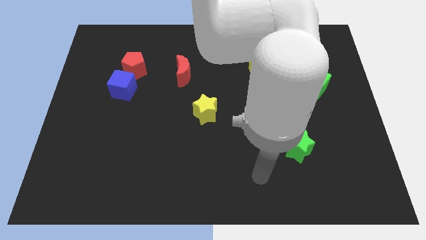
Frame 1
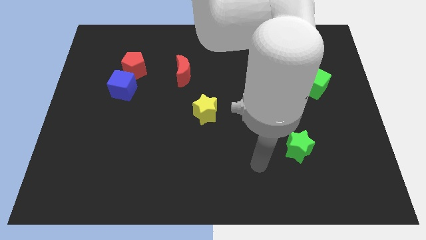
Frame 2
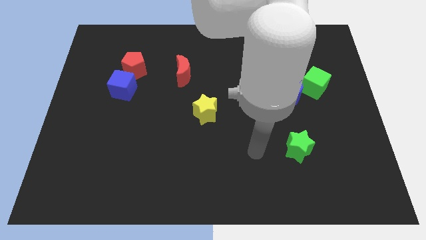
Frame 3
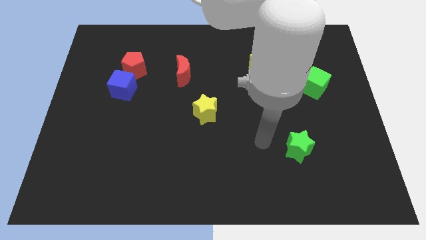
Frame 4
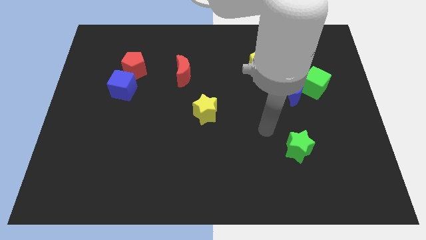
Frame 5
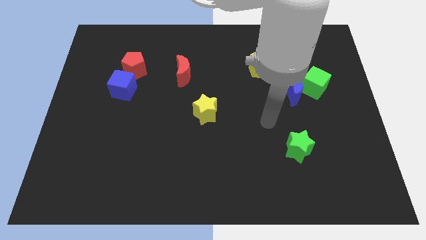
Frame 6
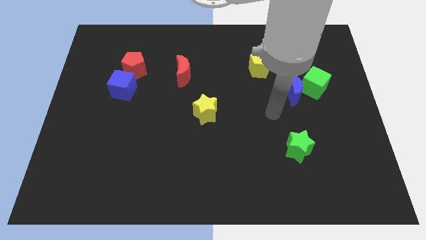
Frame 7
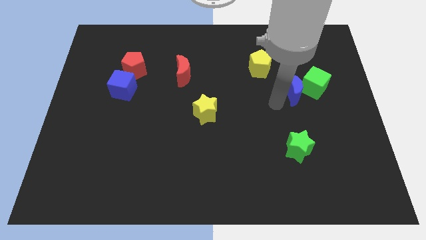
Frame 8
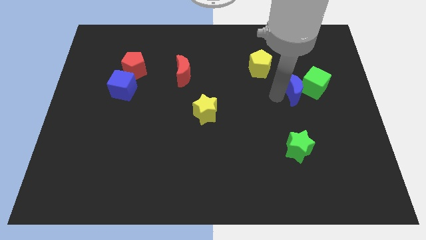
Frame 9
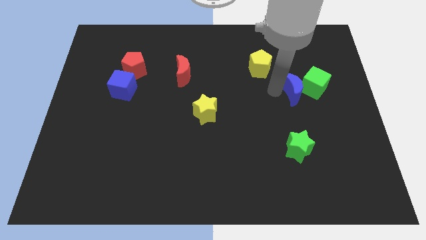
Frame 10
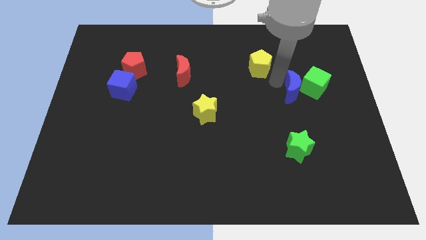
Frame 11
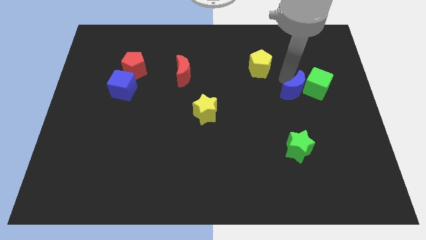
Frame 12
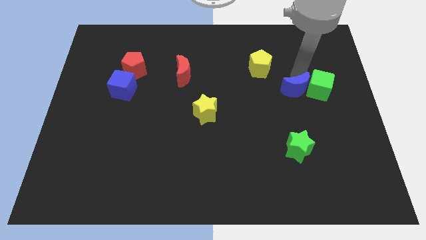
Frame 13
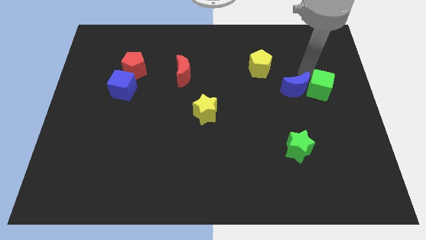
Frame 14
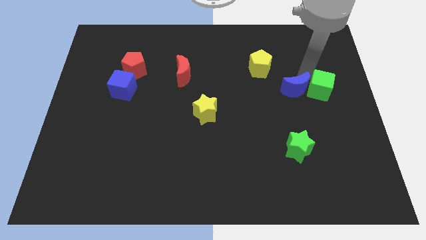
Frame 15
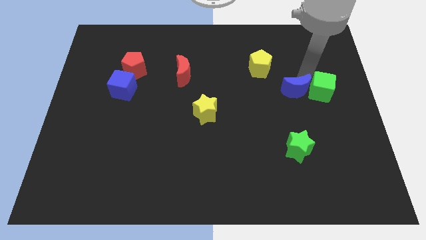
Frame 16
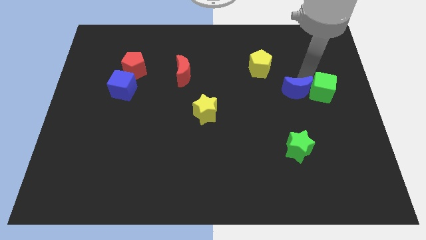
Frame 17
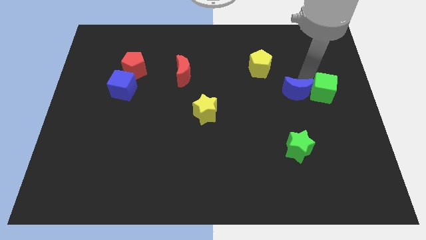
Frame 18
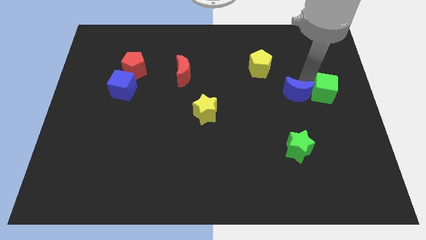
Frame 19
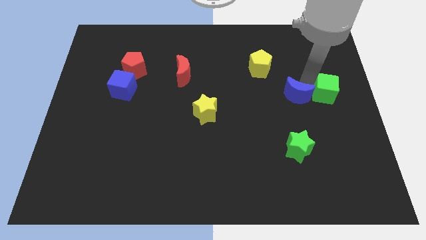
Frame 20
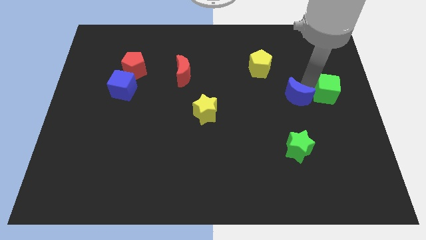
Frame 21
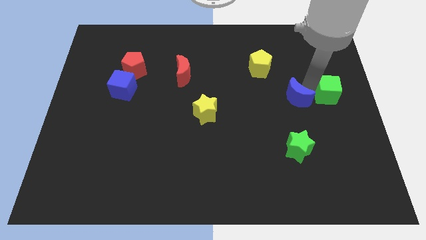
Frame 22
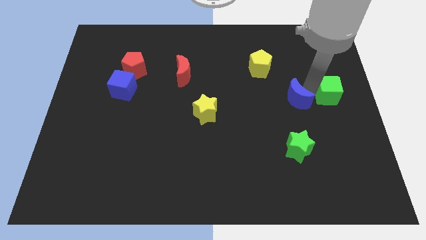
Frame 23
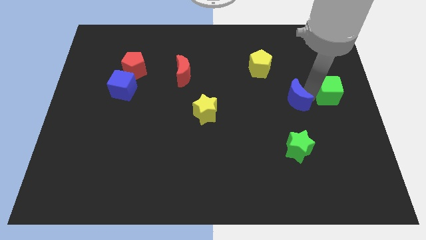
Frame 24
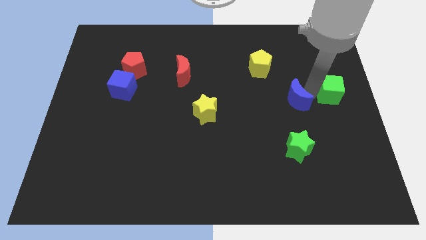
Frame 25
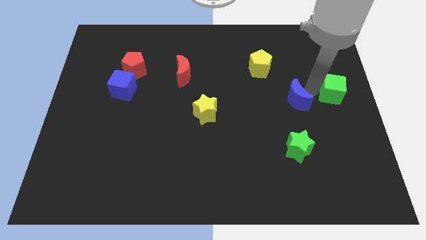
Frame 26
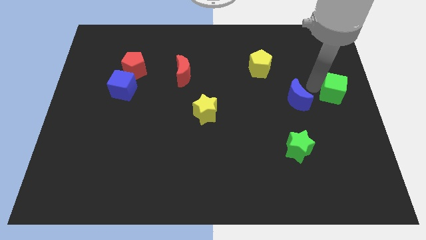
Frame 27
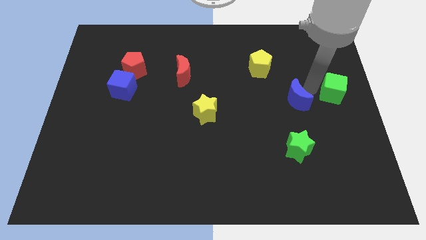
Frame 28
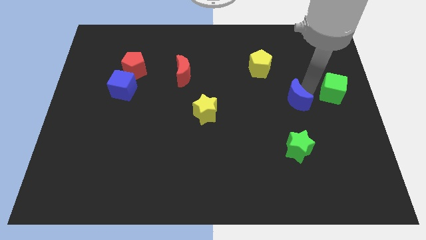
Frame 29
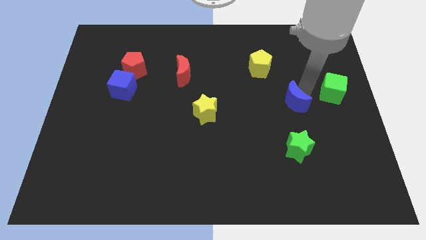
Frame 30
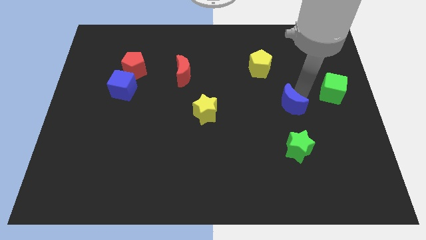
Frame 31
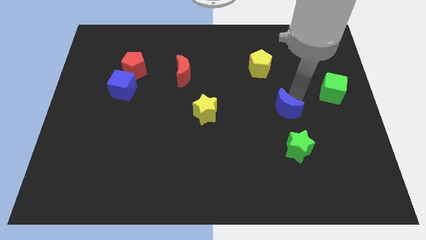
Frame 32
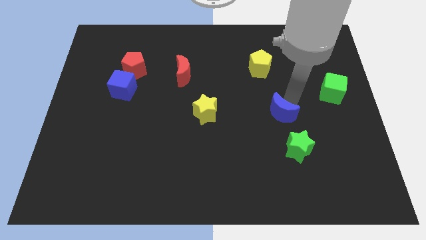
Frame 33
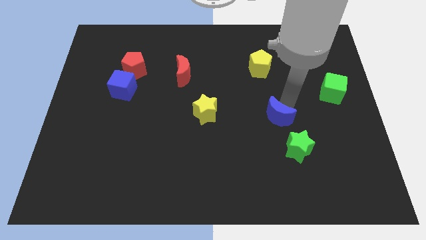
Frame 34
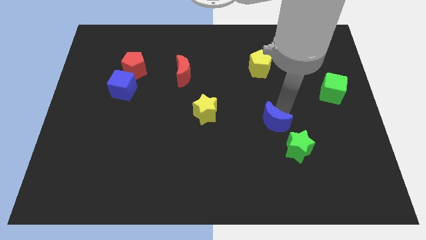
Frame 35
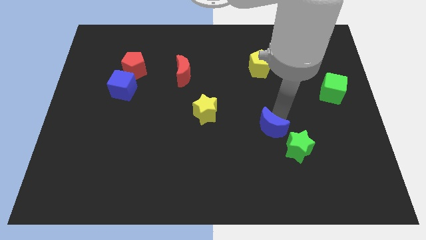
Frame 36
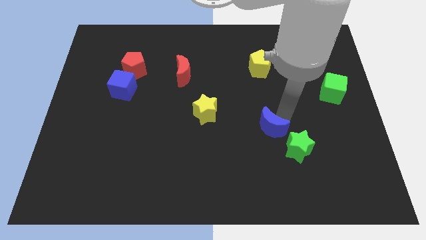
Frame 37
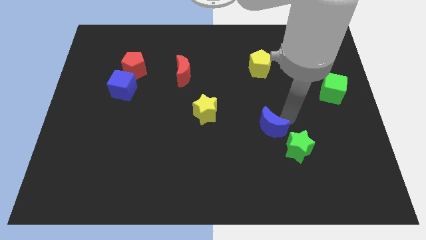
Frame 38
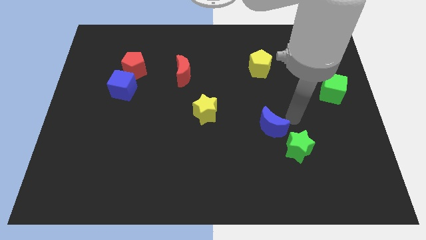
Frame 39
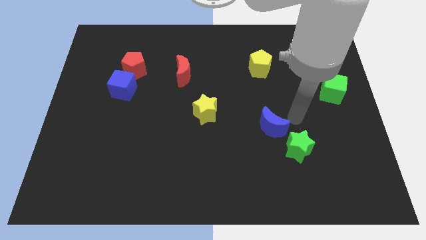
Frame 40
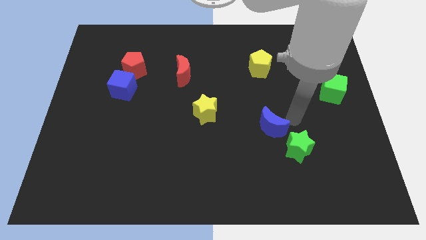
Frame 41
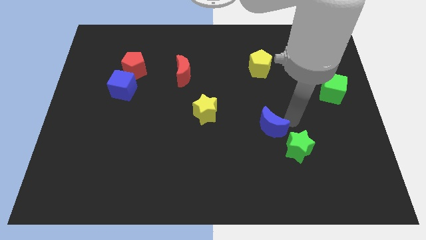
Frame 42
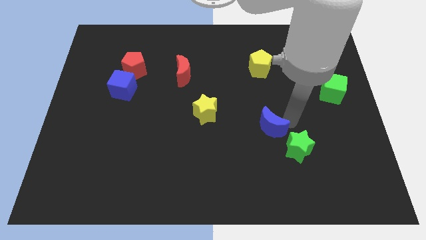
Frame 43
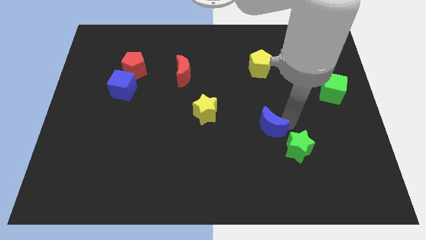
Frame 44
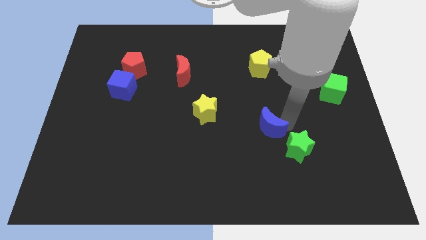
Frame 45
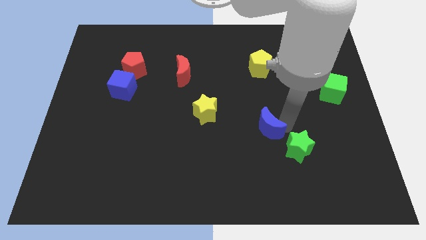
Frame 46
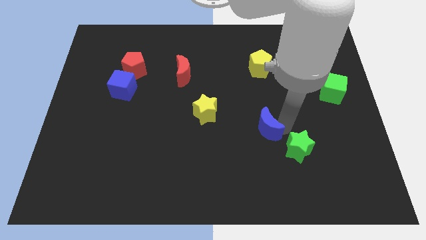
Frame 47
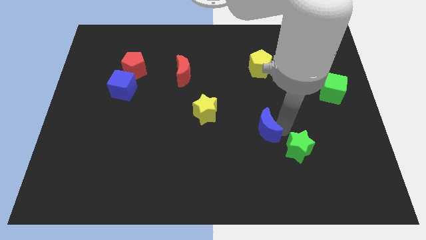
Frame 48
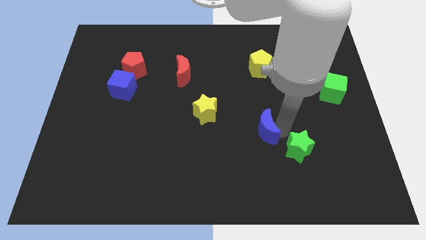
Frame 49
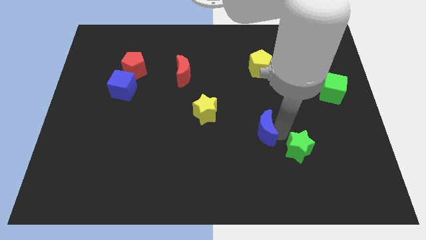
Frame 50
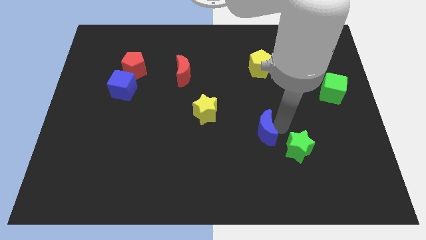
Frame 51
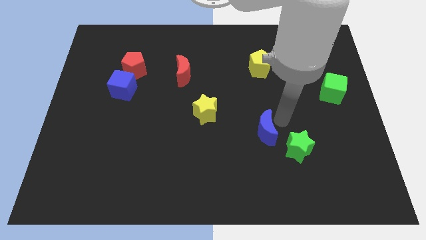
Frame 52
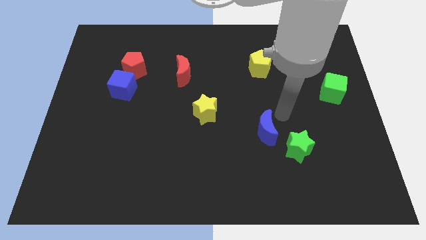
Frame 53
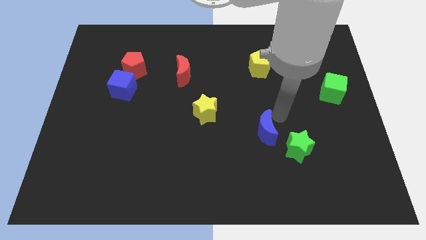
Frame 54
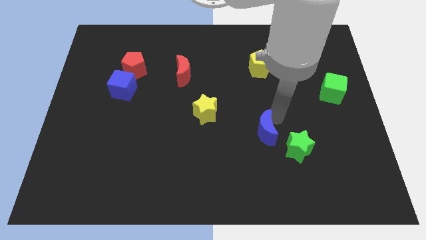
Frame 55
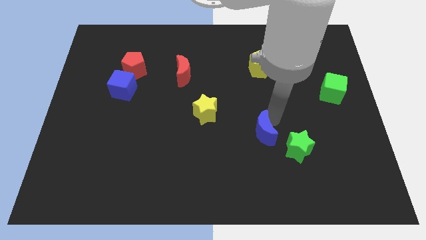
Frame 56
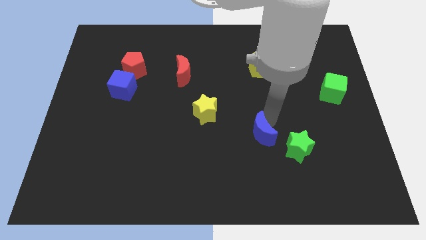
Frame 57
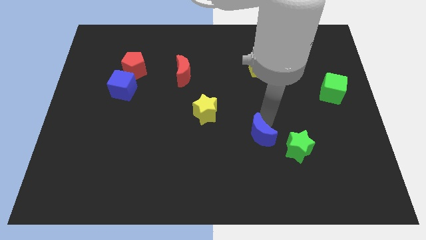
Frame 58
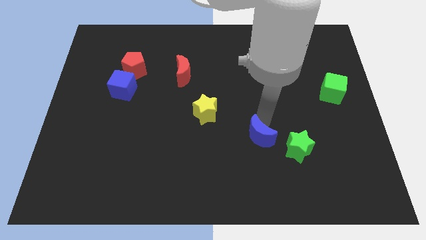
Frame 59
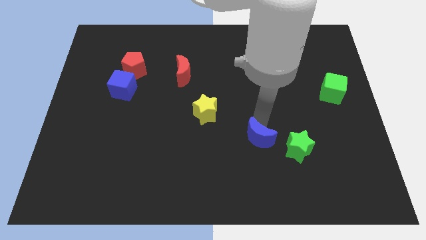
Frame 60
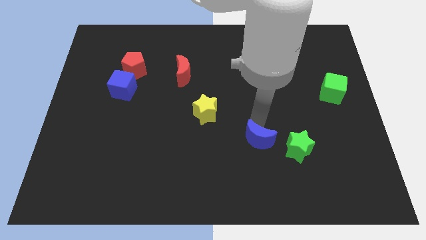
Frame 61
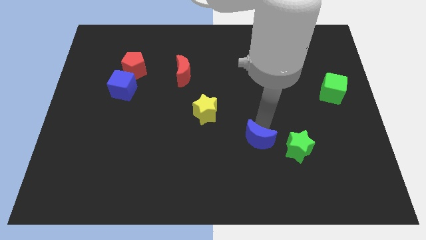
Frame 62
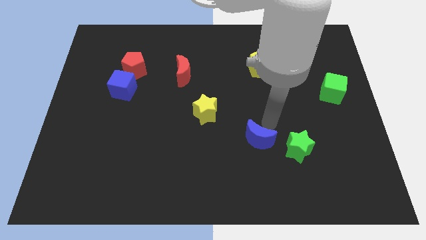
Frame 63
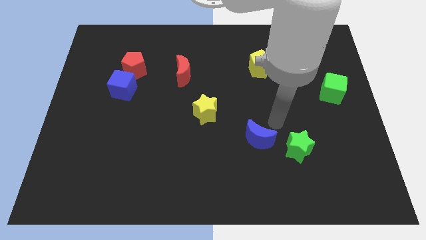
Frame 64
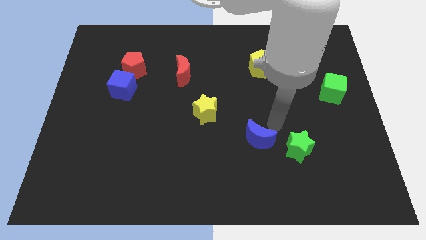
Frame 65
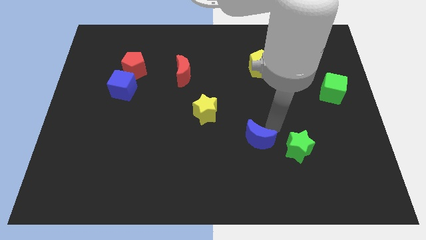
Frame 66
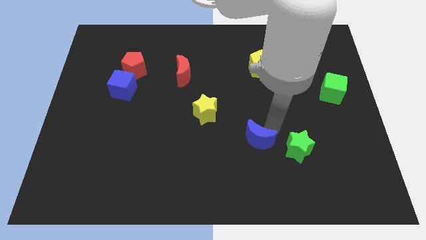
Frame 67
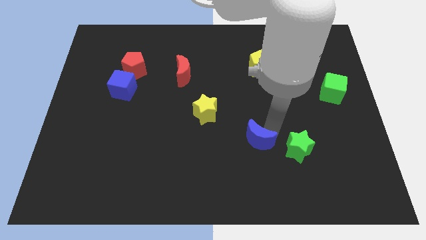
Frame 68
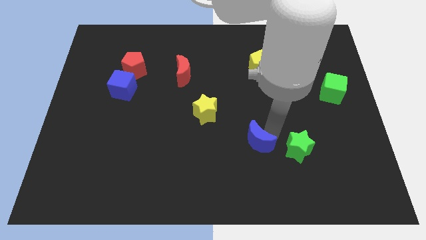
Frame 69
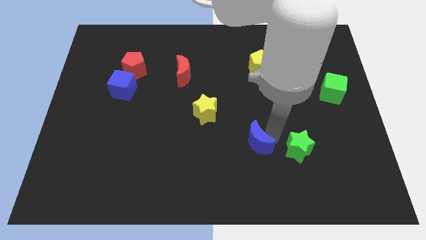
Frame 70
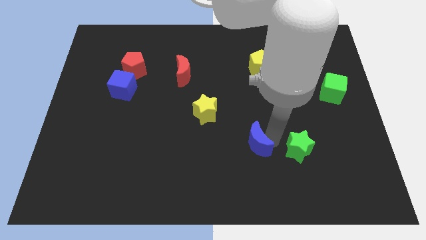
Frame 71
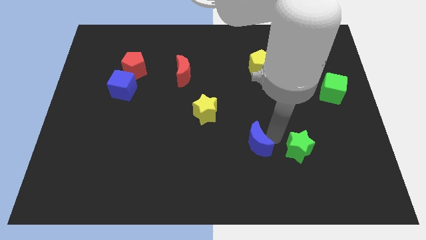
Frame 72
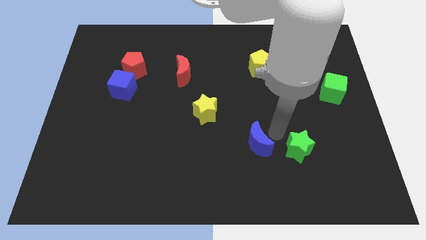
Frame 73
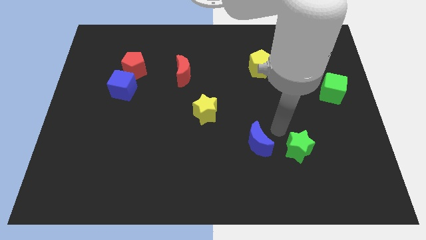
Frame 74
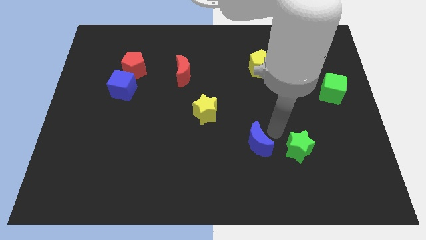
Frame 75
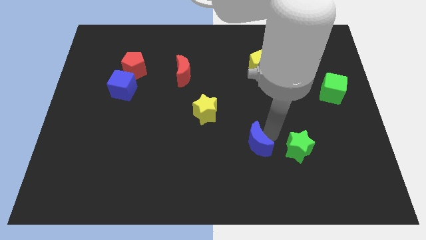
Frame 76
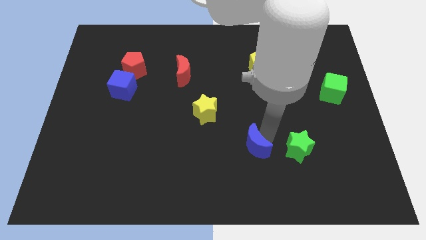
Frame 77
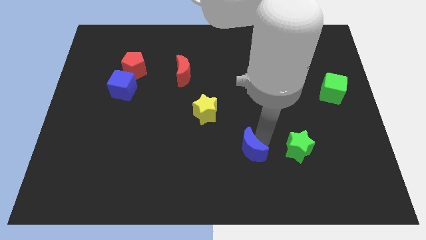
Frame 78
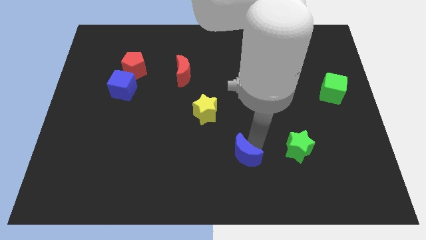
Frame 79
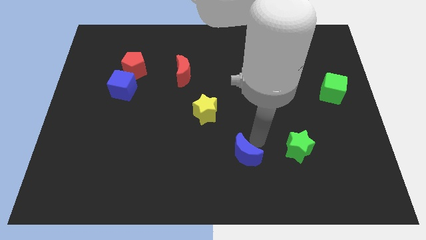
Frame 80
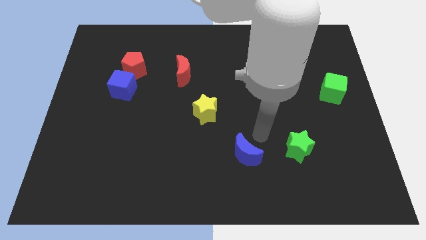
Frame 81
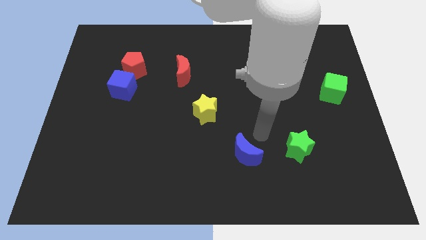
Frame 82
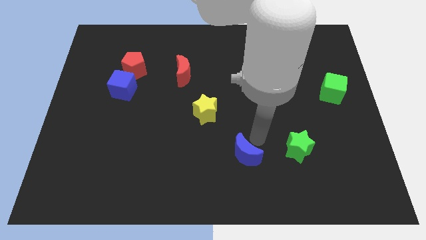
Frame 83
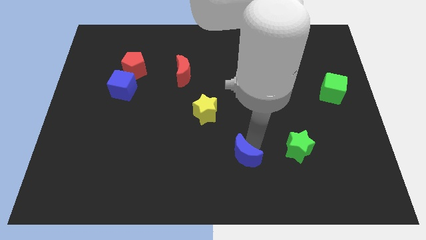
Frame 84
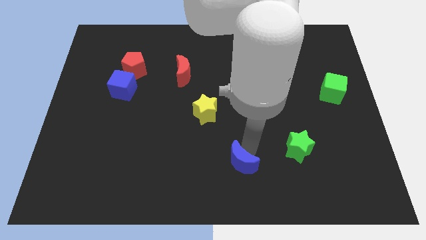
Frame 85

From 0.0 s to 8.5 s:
push the blue moon to the bottom side
